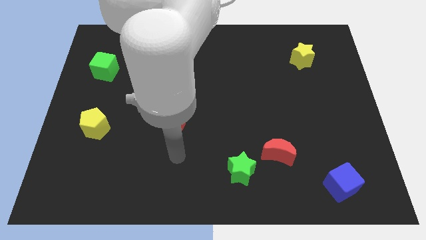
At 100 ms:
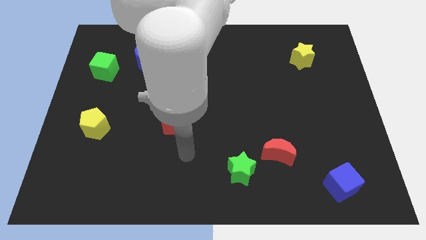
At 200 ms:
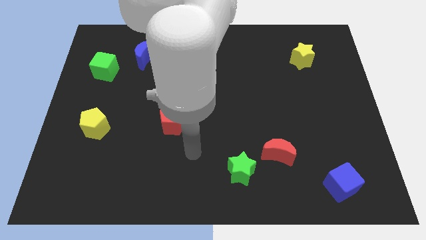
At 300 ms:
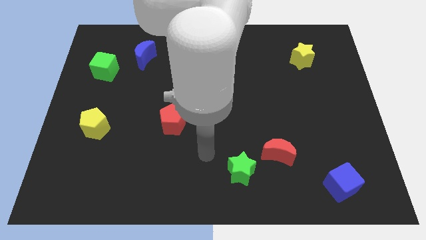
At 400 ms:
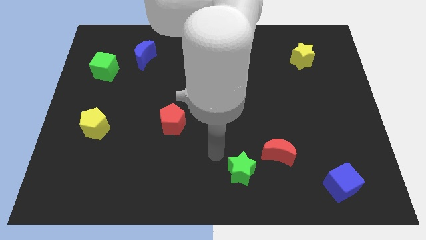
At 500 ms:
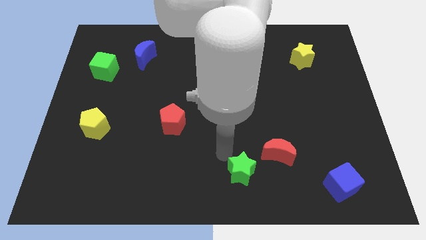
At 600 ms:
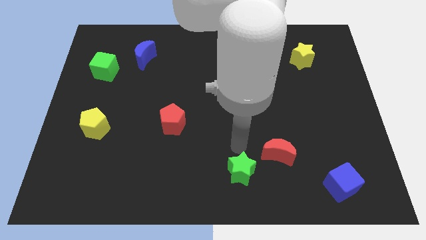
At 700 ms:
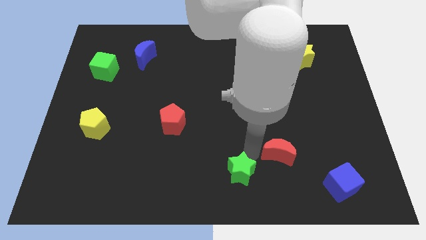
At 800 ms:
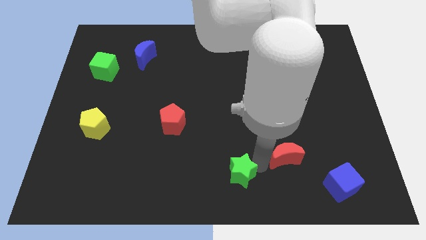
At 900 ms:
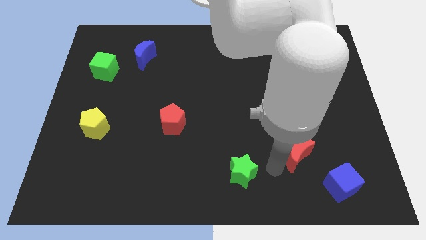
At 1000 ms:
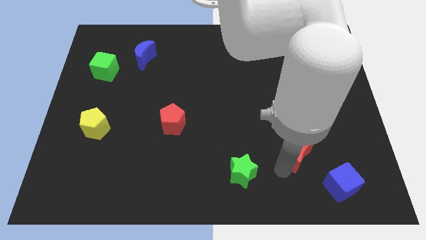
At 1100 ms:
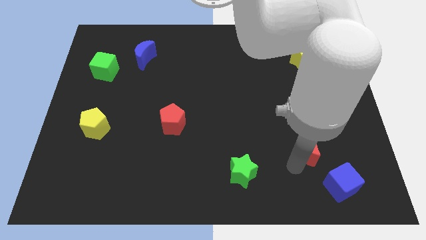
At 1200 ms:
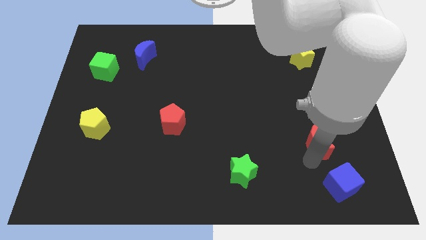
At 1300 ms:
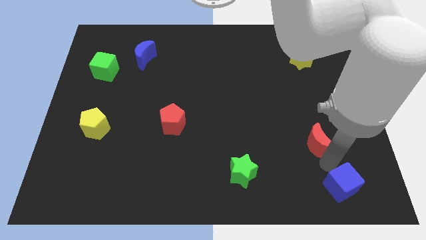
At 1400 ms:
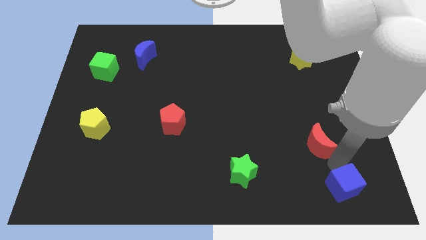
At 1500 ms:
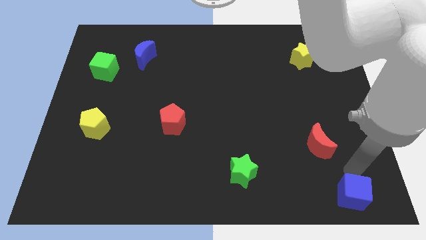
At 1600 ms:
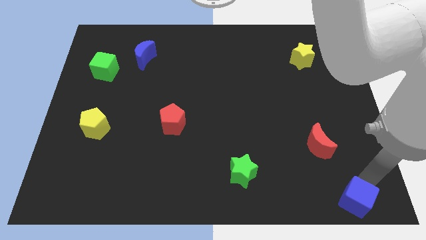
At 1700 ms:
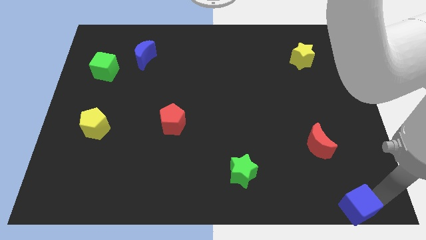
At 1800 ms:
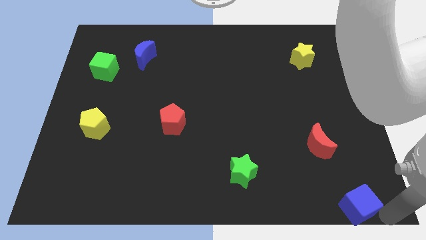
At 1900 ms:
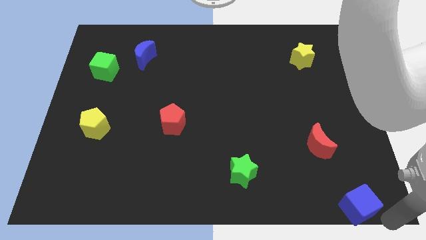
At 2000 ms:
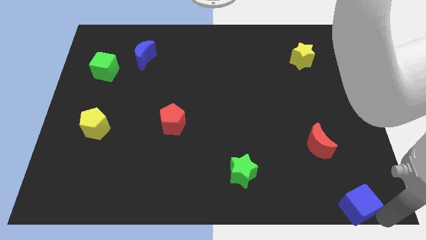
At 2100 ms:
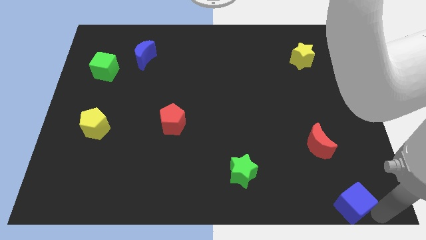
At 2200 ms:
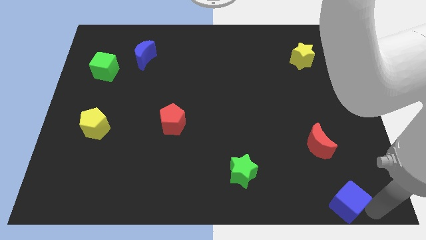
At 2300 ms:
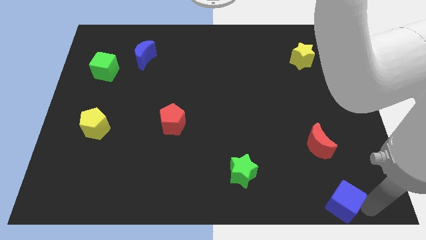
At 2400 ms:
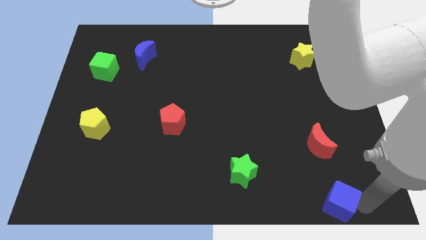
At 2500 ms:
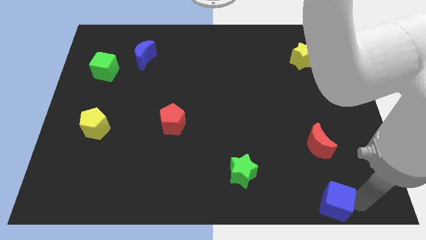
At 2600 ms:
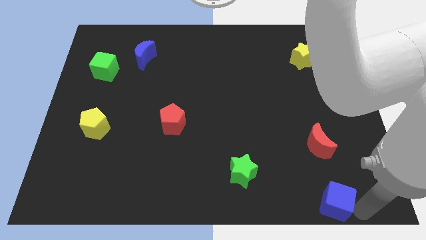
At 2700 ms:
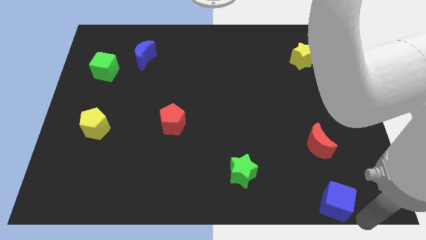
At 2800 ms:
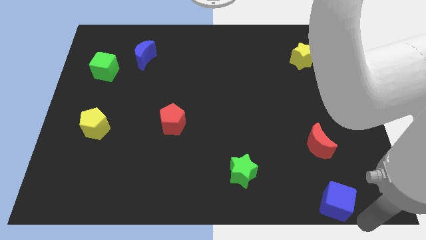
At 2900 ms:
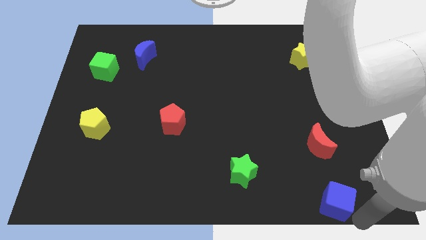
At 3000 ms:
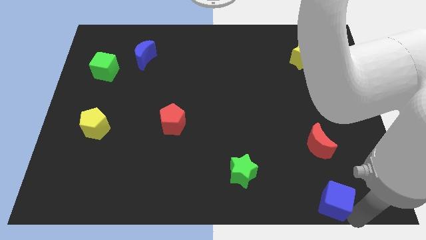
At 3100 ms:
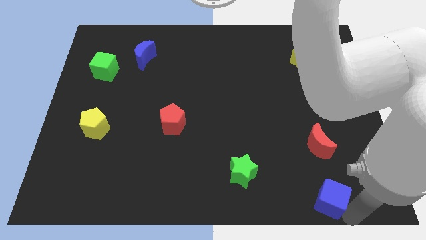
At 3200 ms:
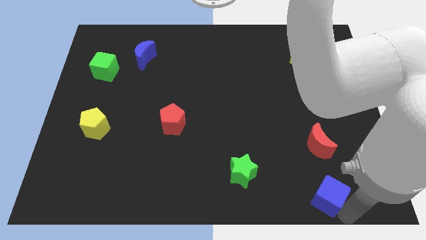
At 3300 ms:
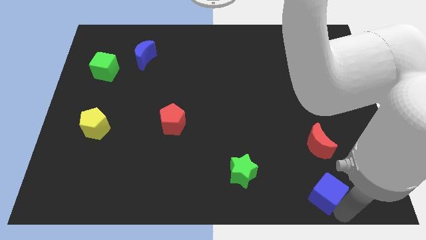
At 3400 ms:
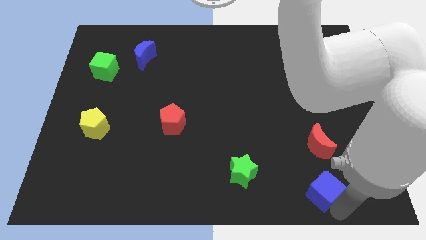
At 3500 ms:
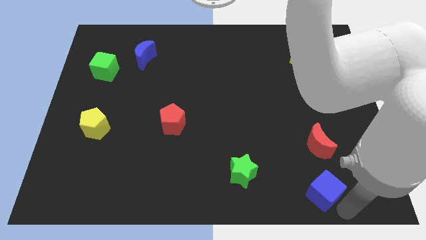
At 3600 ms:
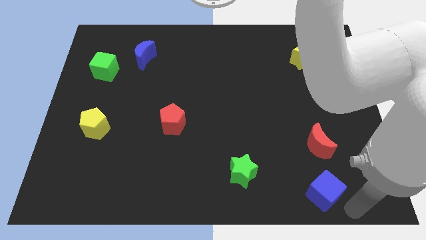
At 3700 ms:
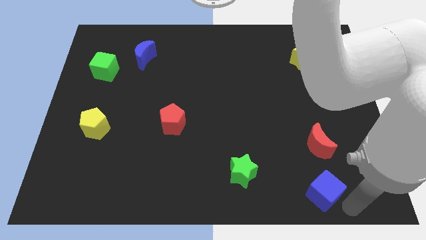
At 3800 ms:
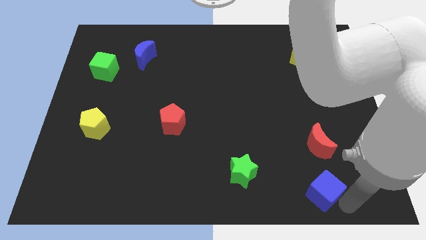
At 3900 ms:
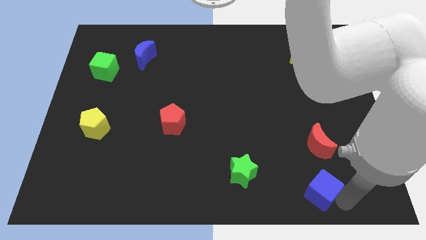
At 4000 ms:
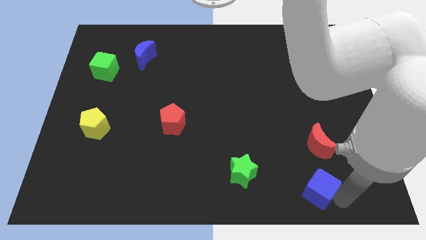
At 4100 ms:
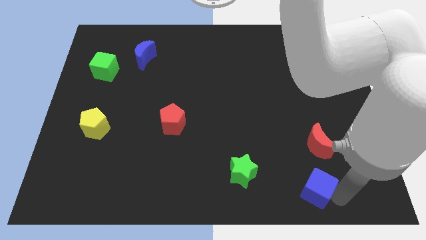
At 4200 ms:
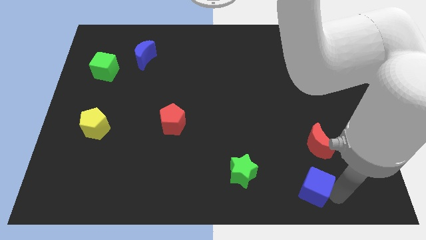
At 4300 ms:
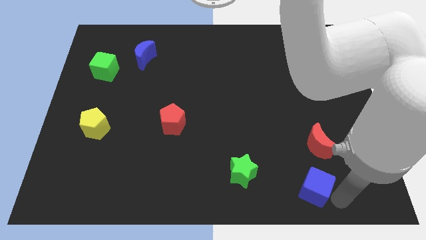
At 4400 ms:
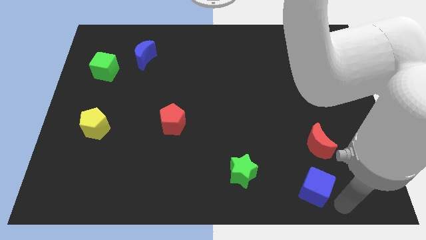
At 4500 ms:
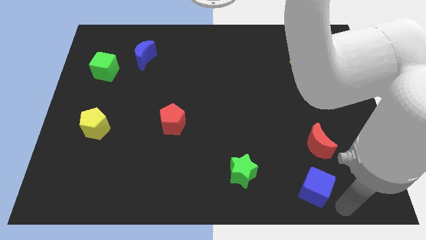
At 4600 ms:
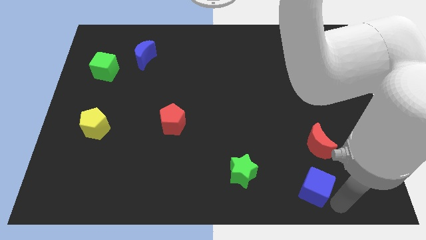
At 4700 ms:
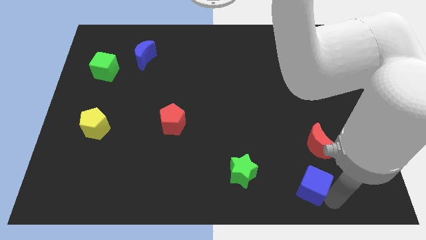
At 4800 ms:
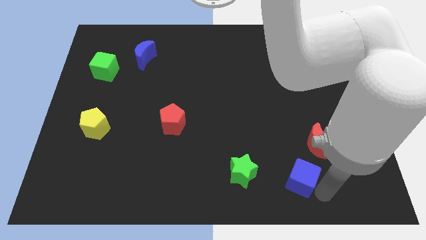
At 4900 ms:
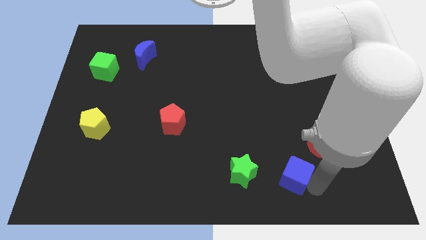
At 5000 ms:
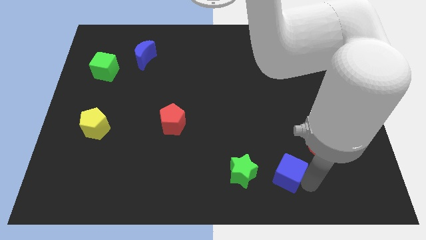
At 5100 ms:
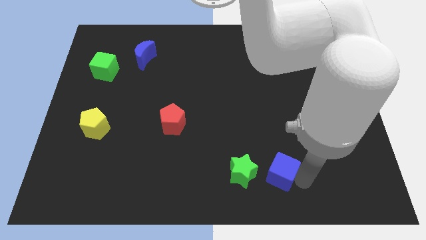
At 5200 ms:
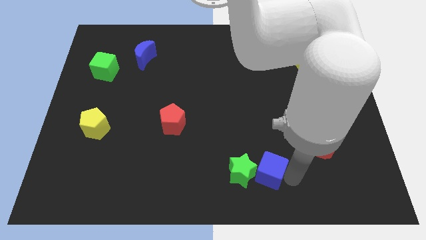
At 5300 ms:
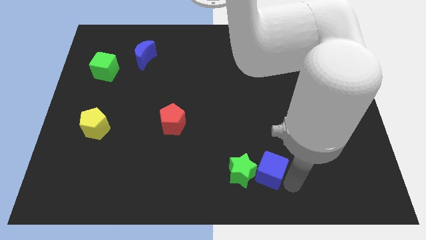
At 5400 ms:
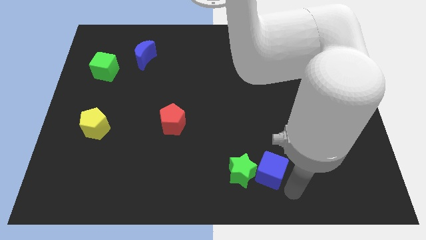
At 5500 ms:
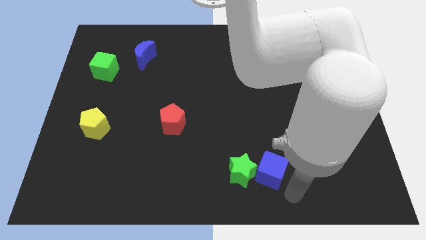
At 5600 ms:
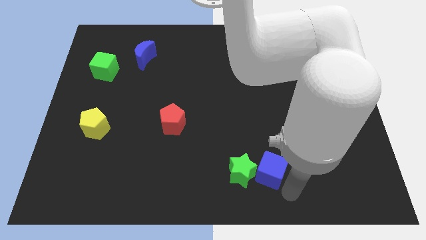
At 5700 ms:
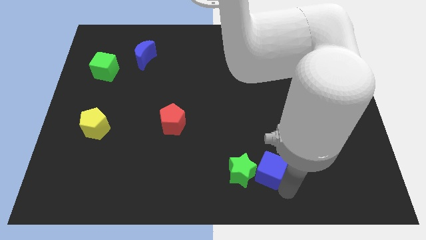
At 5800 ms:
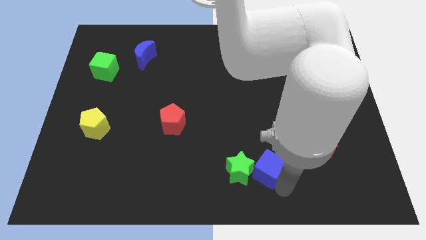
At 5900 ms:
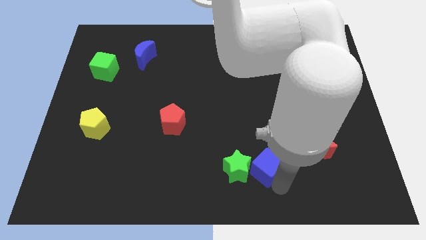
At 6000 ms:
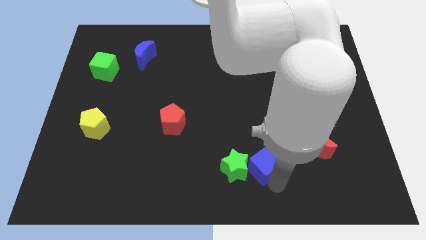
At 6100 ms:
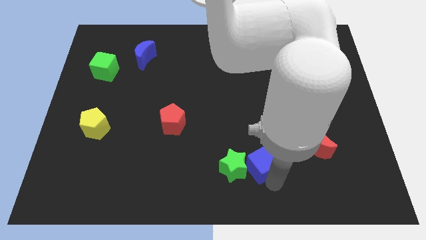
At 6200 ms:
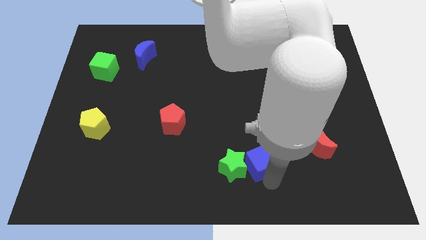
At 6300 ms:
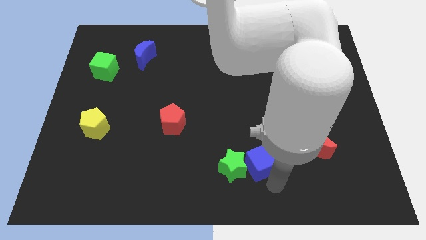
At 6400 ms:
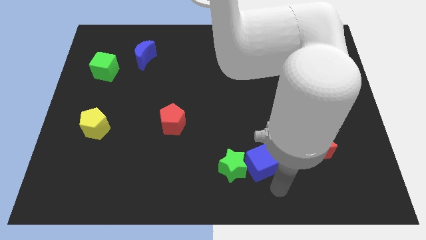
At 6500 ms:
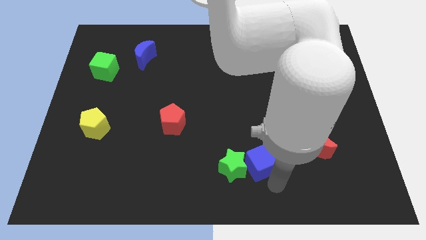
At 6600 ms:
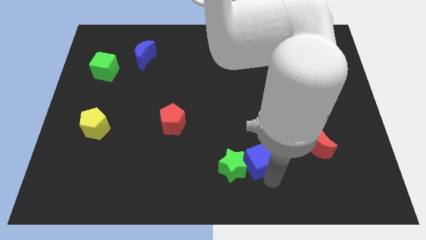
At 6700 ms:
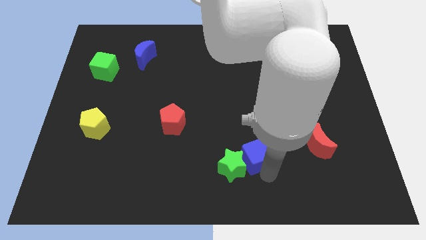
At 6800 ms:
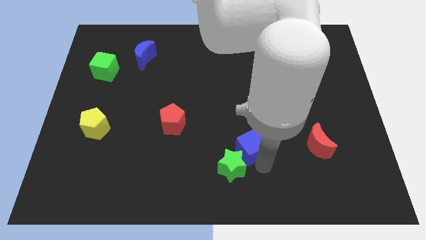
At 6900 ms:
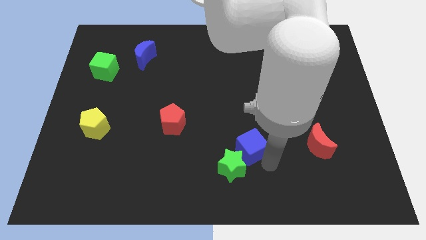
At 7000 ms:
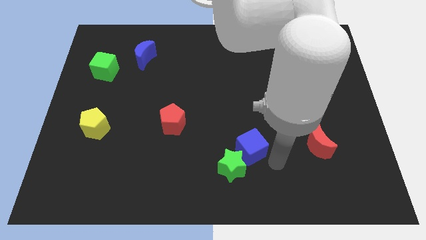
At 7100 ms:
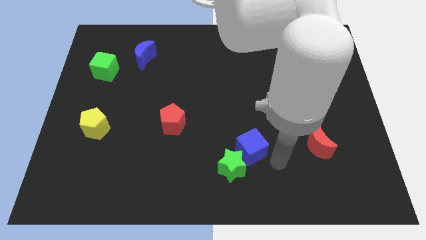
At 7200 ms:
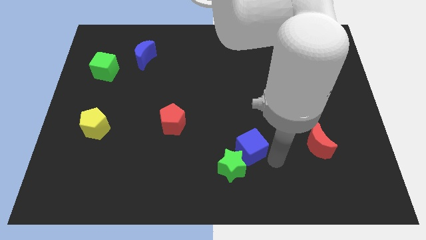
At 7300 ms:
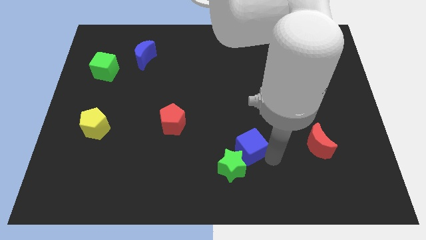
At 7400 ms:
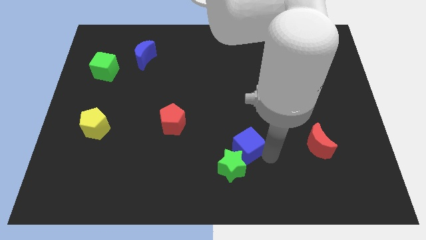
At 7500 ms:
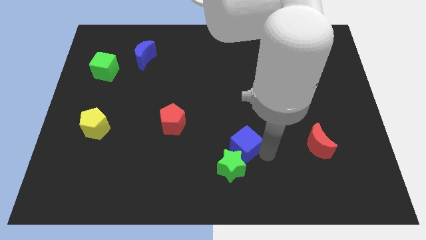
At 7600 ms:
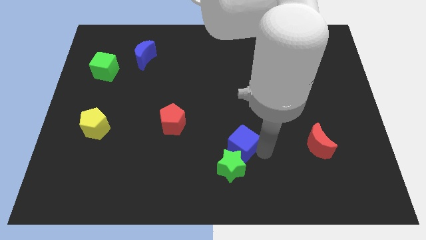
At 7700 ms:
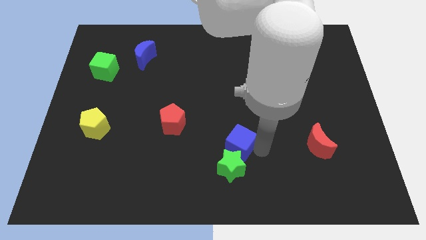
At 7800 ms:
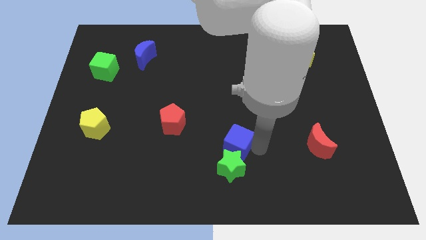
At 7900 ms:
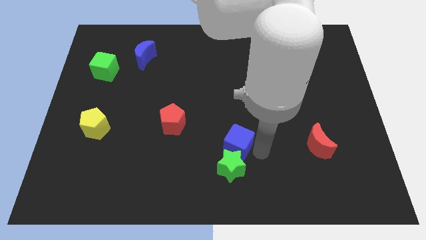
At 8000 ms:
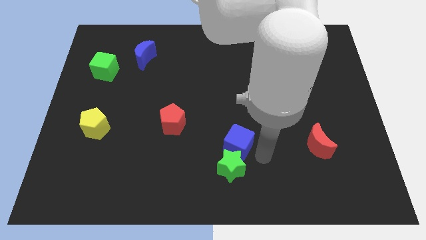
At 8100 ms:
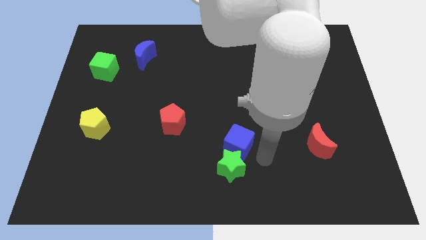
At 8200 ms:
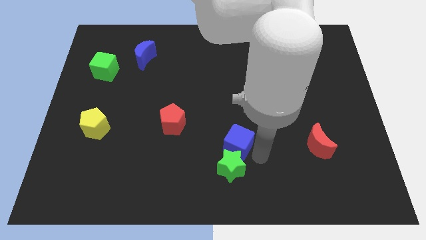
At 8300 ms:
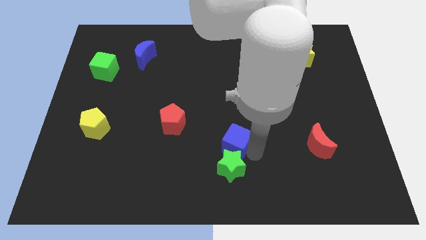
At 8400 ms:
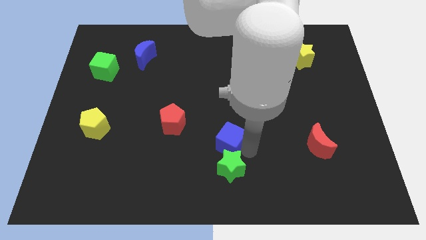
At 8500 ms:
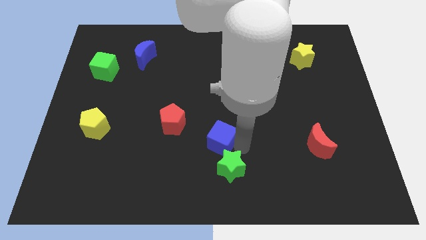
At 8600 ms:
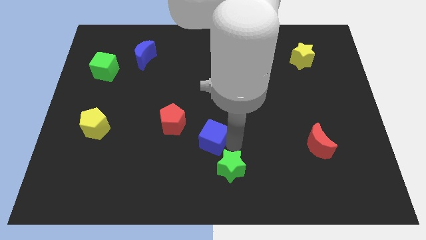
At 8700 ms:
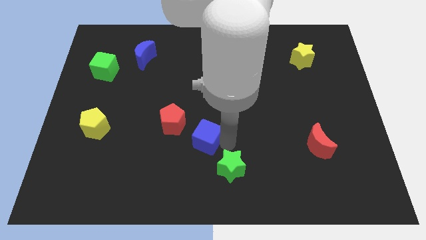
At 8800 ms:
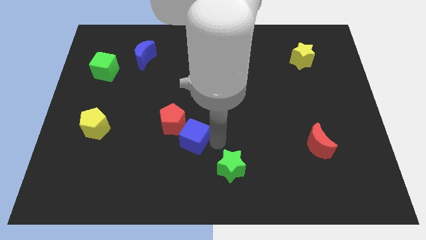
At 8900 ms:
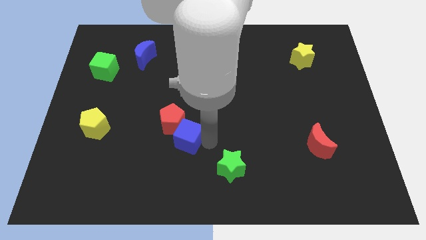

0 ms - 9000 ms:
push the blue cube next to the red pentagon
